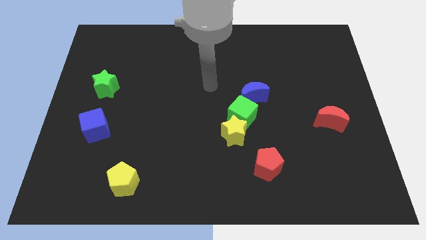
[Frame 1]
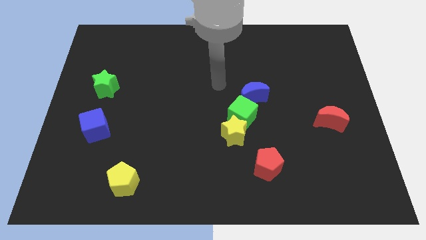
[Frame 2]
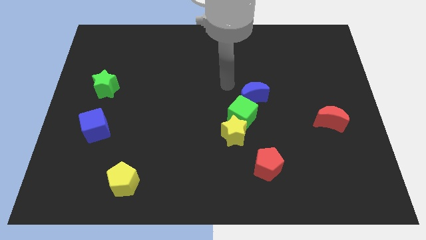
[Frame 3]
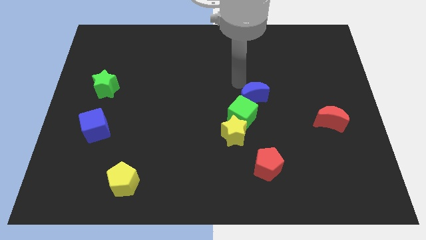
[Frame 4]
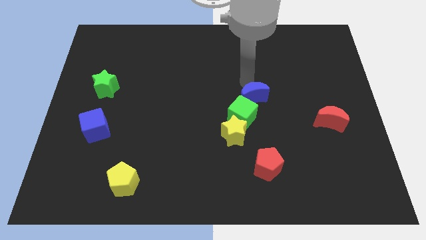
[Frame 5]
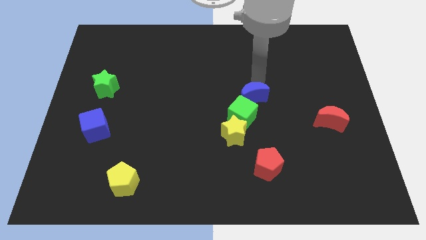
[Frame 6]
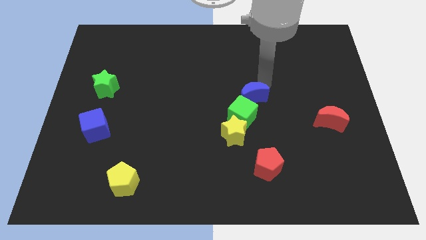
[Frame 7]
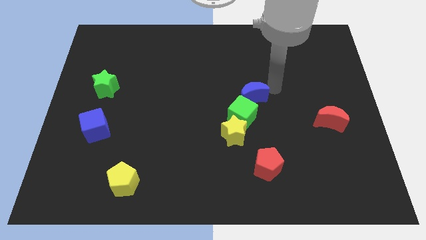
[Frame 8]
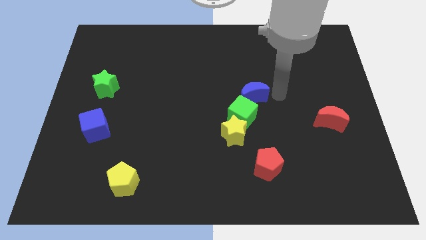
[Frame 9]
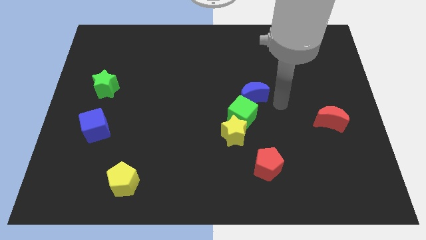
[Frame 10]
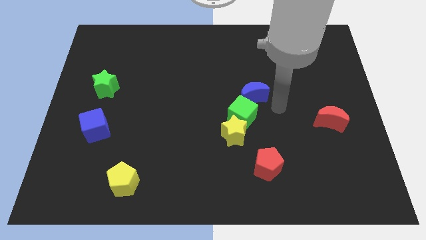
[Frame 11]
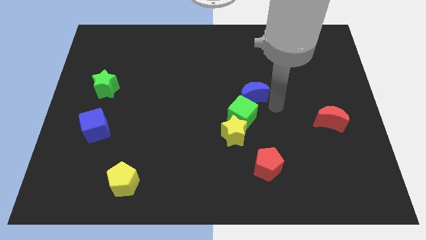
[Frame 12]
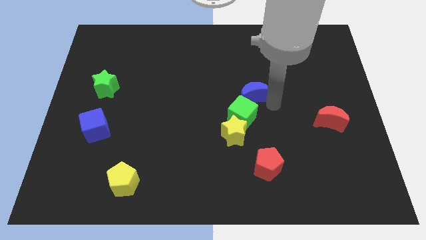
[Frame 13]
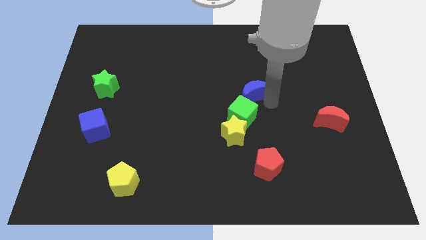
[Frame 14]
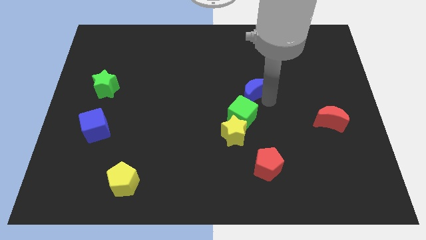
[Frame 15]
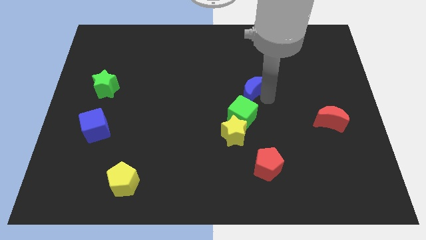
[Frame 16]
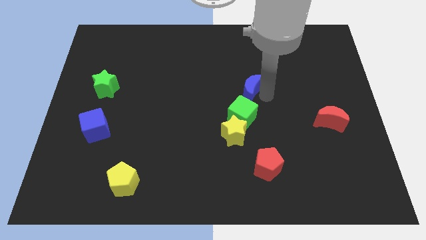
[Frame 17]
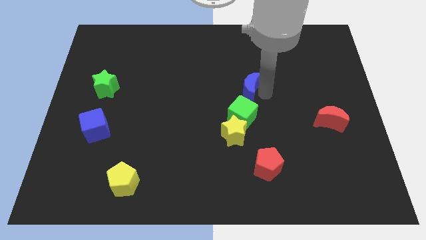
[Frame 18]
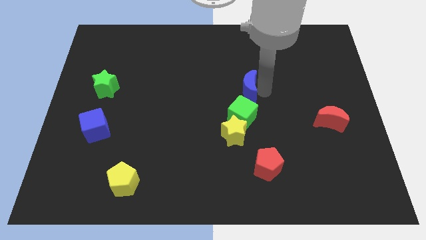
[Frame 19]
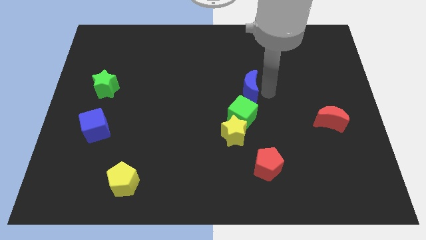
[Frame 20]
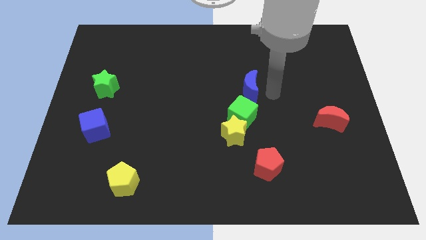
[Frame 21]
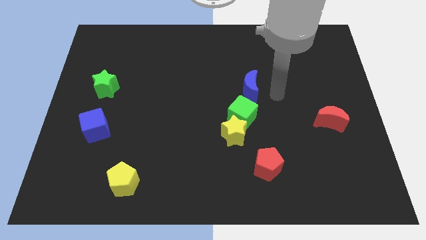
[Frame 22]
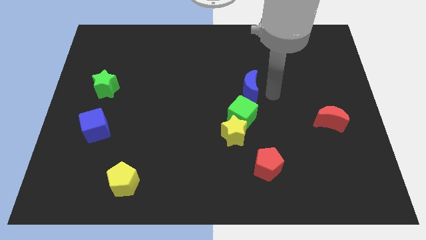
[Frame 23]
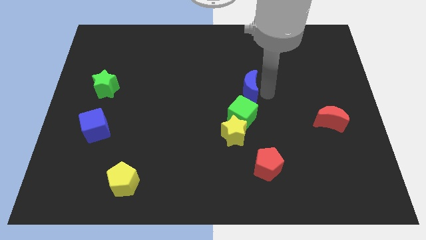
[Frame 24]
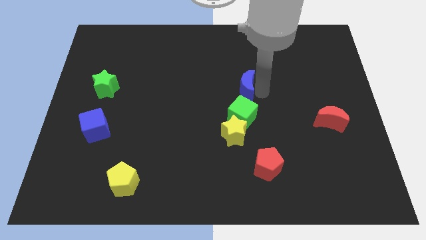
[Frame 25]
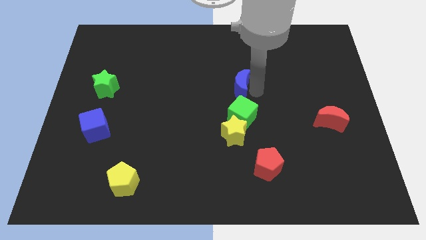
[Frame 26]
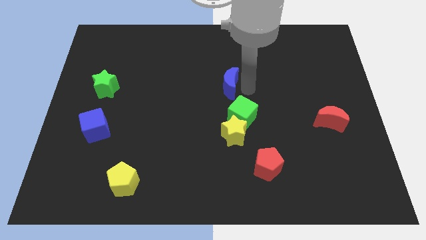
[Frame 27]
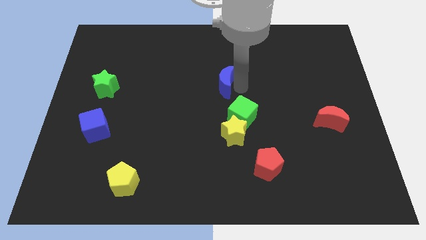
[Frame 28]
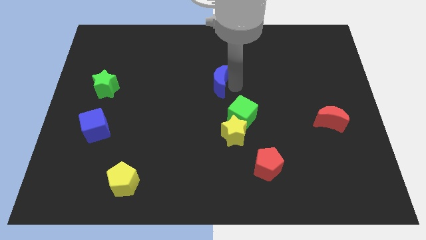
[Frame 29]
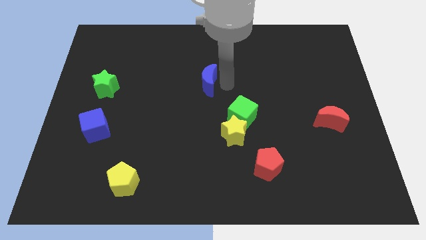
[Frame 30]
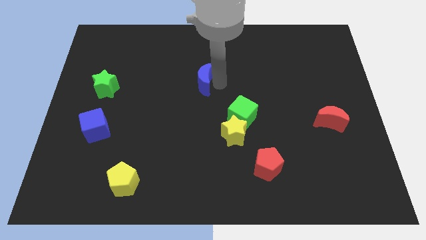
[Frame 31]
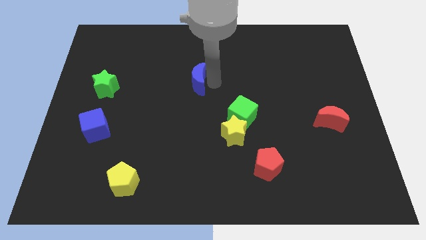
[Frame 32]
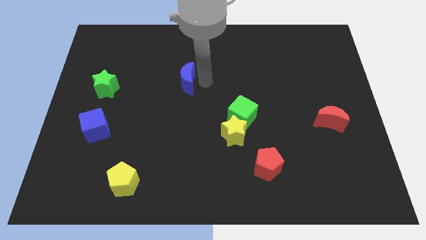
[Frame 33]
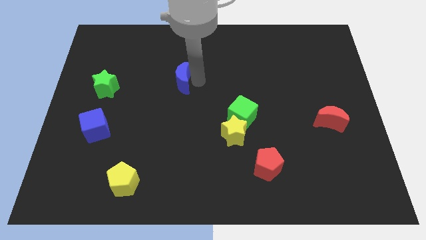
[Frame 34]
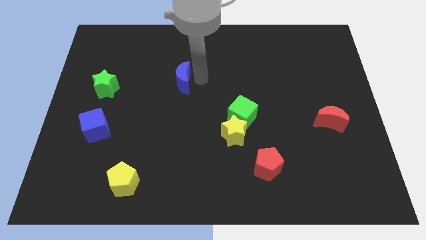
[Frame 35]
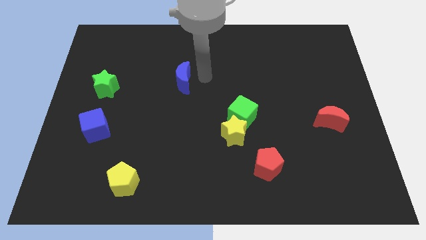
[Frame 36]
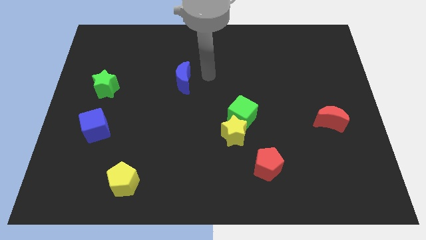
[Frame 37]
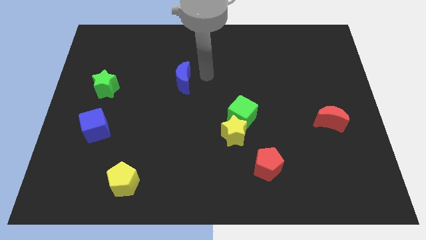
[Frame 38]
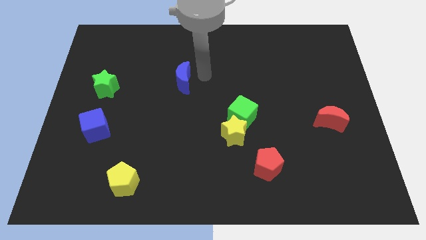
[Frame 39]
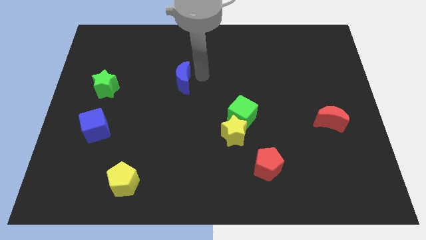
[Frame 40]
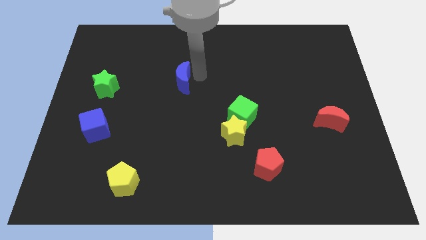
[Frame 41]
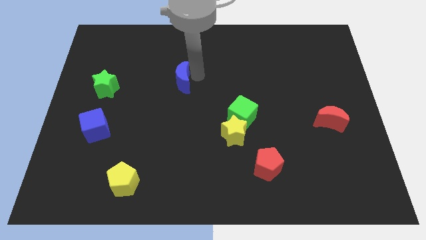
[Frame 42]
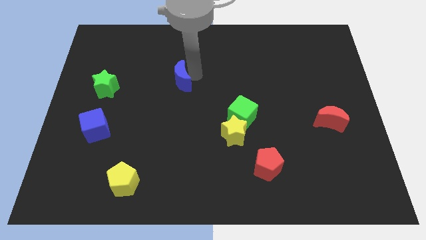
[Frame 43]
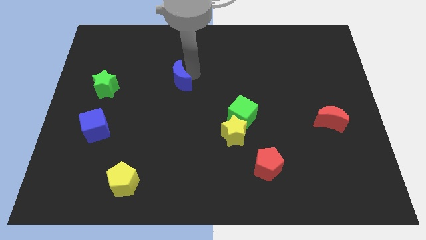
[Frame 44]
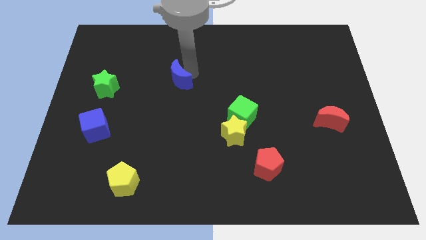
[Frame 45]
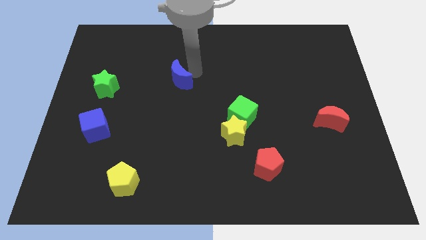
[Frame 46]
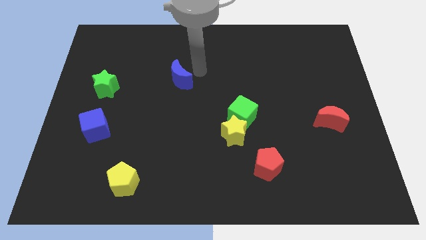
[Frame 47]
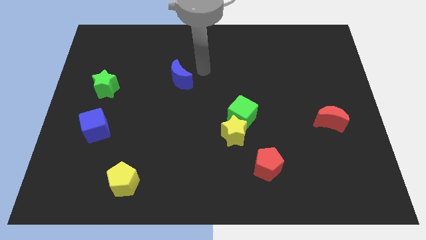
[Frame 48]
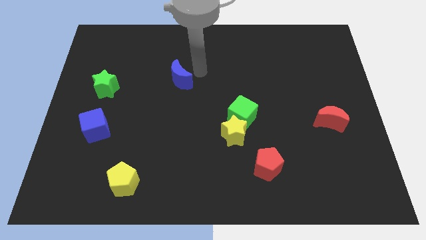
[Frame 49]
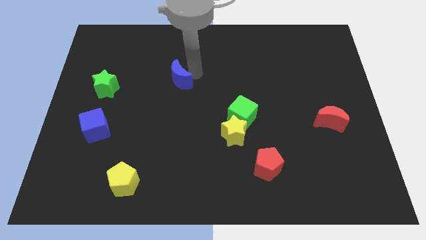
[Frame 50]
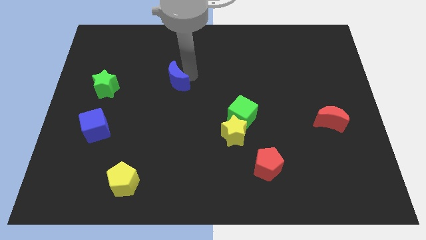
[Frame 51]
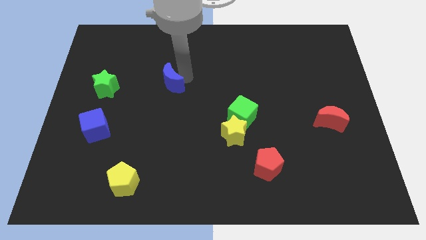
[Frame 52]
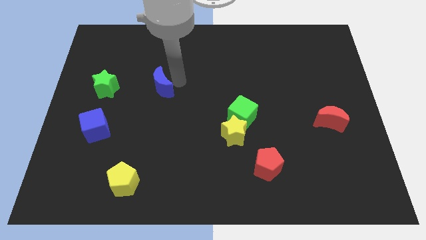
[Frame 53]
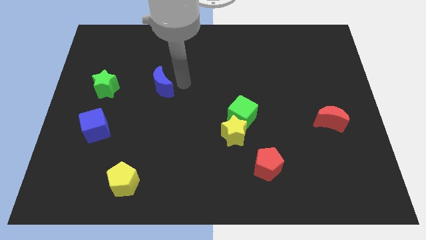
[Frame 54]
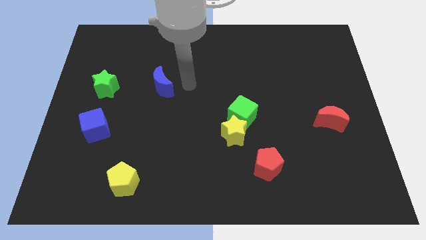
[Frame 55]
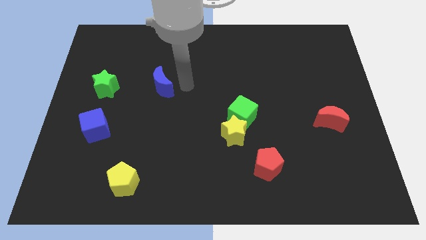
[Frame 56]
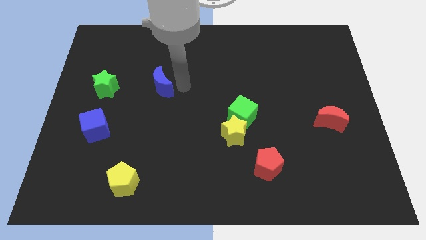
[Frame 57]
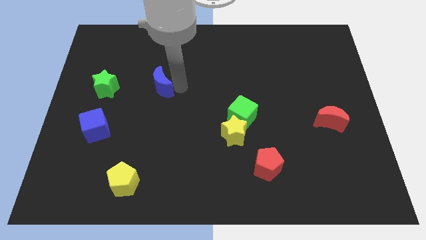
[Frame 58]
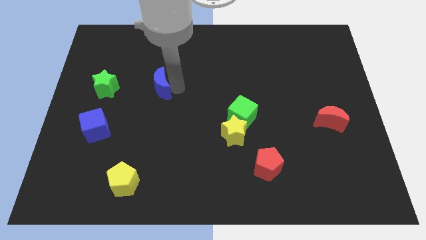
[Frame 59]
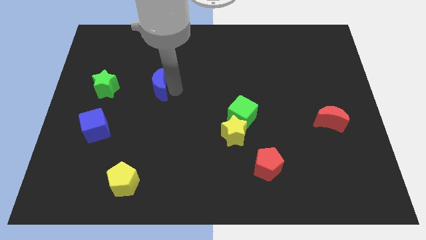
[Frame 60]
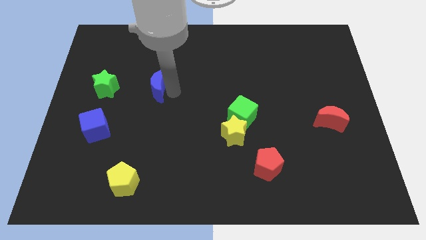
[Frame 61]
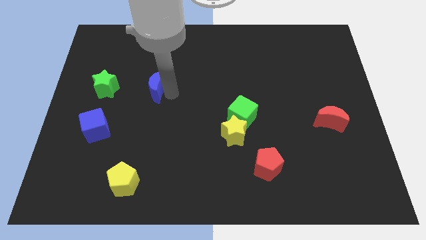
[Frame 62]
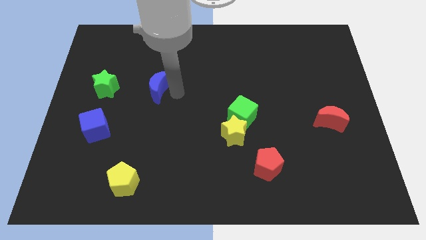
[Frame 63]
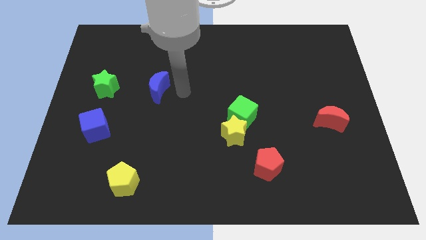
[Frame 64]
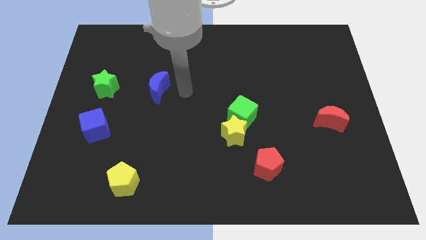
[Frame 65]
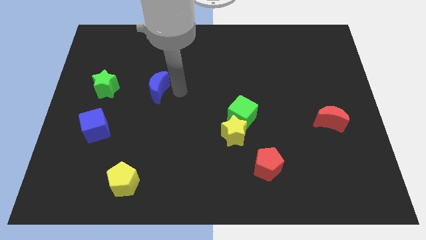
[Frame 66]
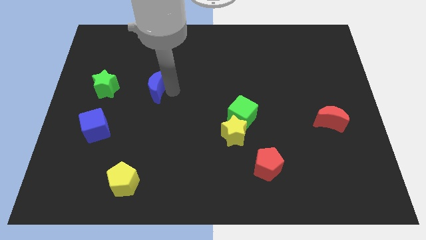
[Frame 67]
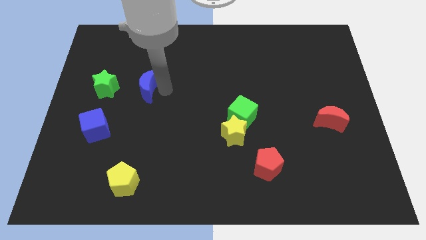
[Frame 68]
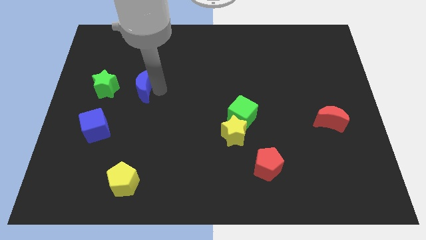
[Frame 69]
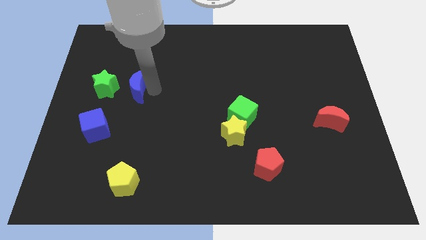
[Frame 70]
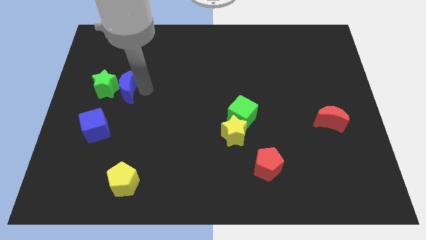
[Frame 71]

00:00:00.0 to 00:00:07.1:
slide the blue moon towards the green star

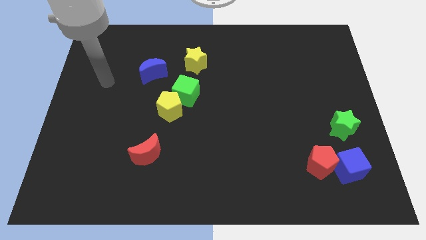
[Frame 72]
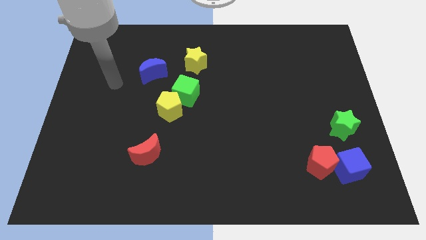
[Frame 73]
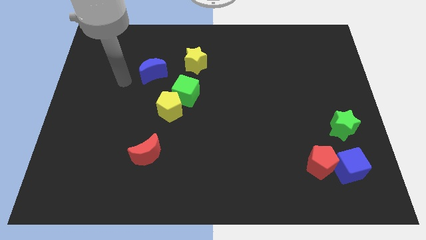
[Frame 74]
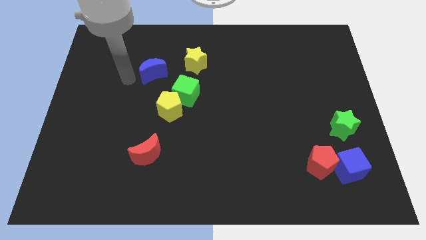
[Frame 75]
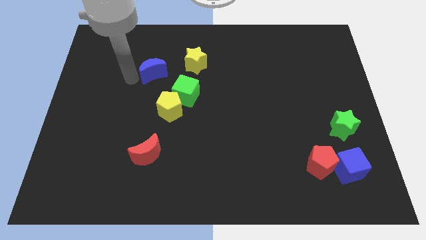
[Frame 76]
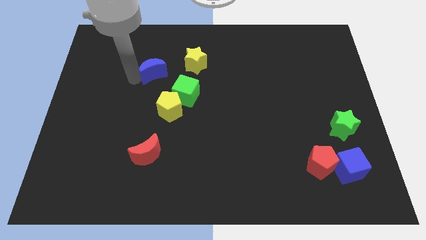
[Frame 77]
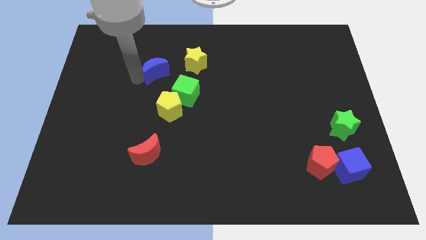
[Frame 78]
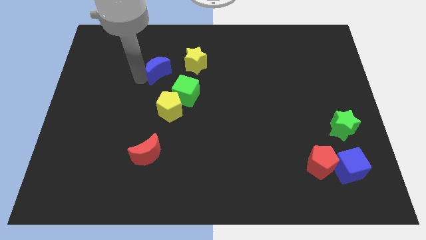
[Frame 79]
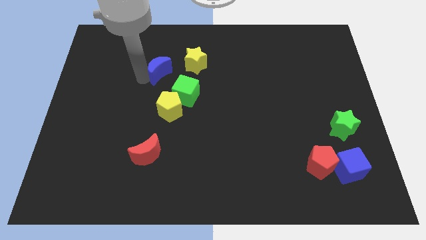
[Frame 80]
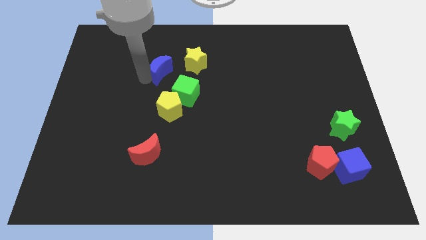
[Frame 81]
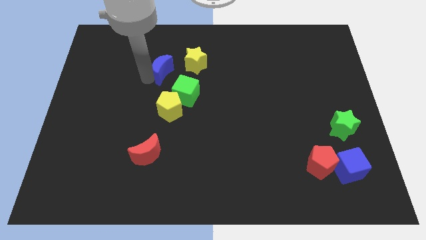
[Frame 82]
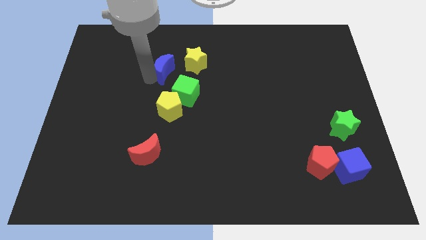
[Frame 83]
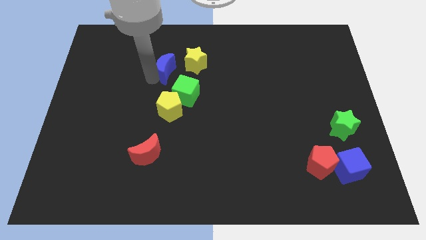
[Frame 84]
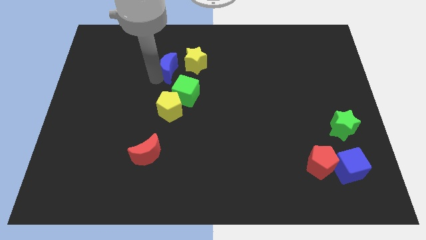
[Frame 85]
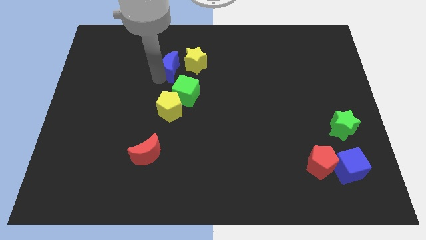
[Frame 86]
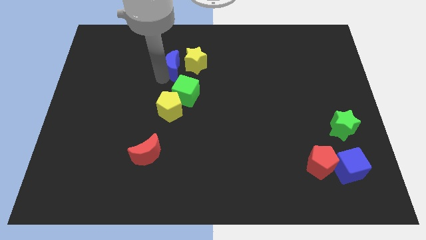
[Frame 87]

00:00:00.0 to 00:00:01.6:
move the blue moon close to the yellow star
